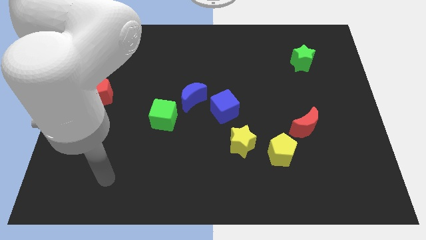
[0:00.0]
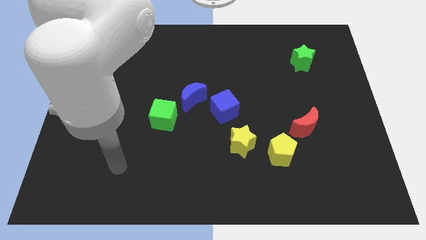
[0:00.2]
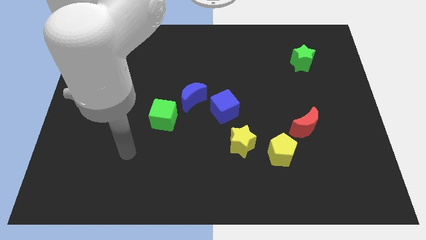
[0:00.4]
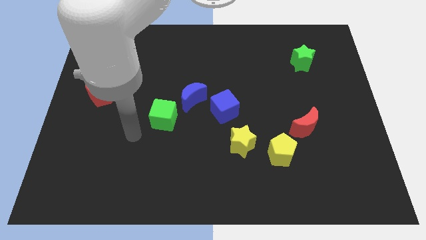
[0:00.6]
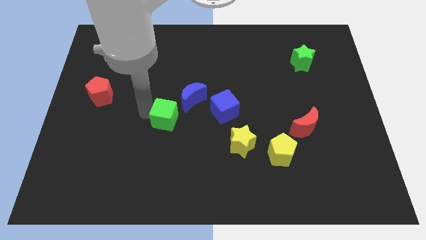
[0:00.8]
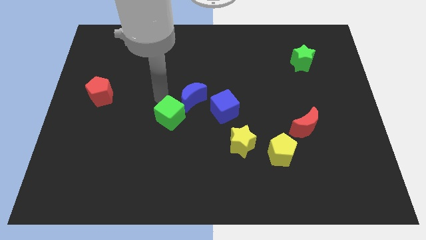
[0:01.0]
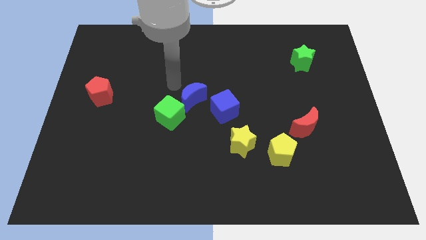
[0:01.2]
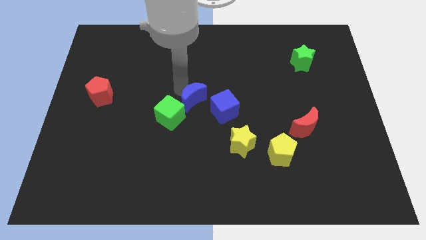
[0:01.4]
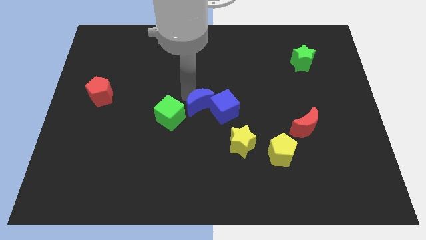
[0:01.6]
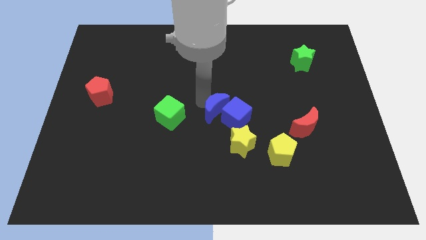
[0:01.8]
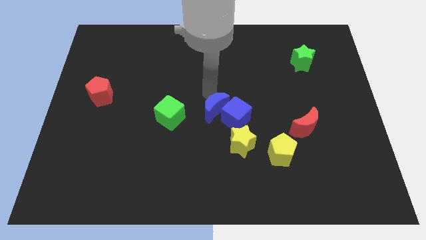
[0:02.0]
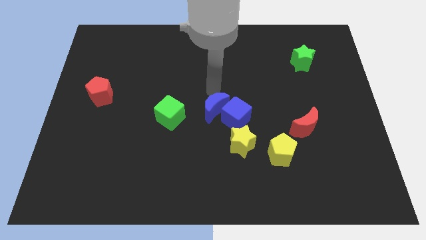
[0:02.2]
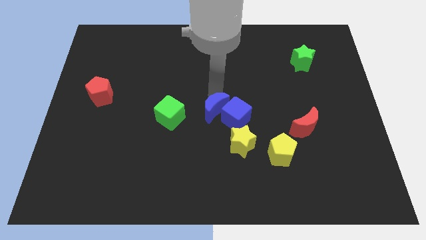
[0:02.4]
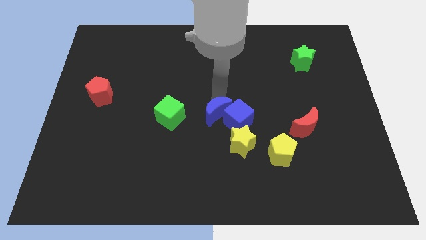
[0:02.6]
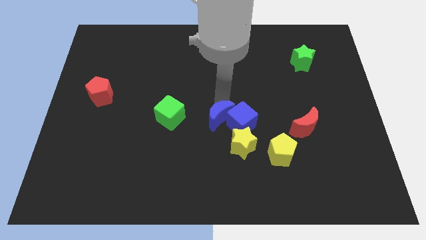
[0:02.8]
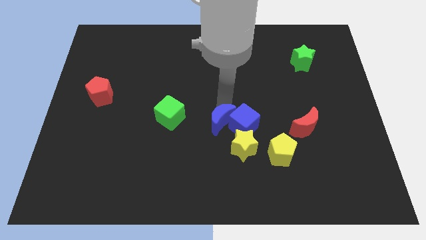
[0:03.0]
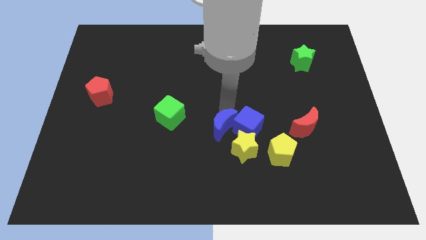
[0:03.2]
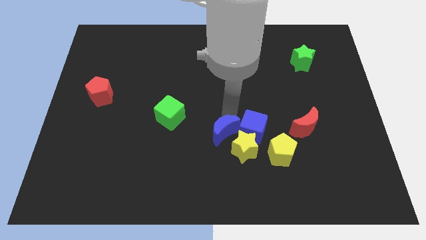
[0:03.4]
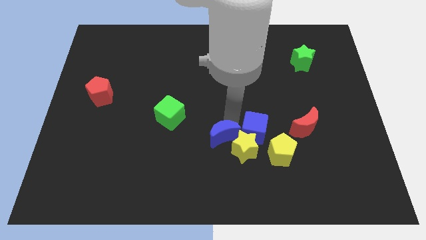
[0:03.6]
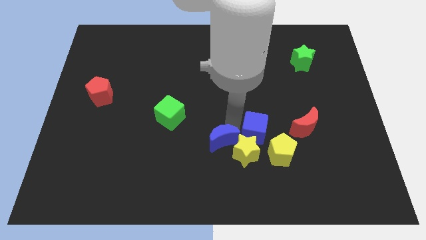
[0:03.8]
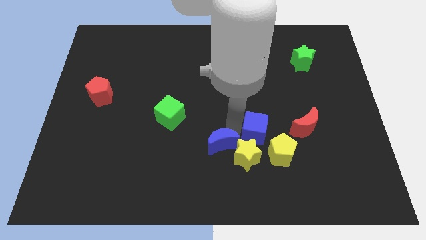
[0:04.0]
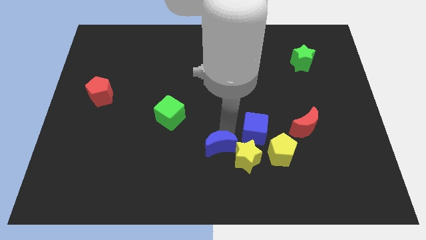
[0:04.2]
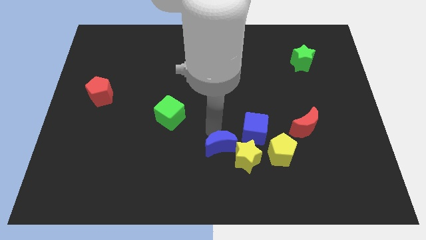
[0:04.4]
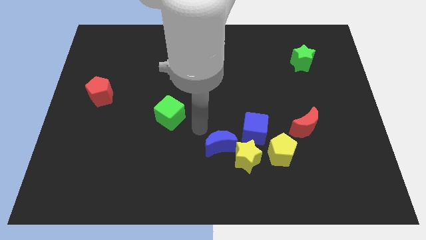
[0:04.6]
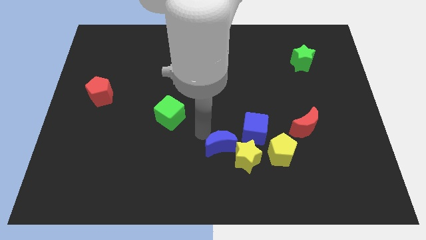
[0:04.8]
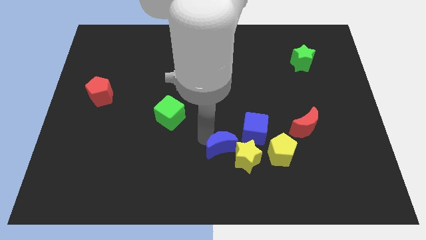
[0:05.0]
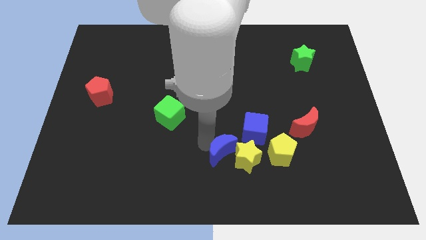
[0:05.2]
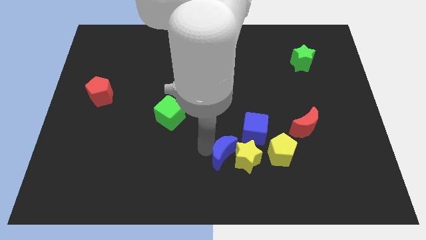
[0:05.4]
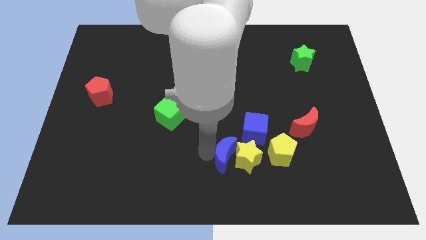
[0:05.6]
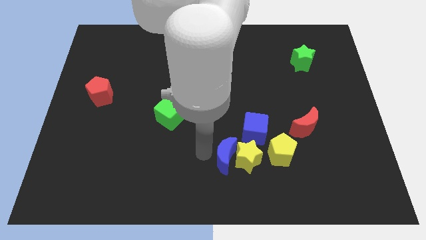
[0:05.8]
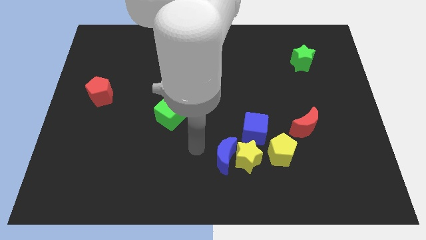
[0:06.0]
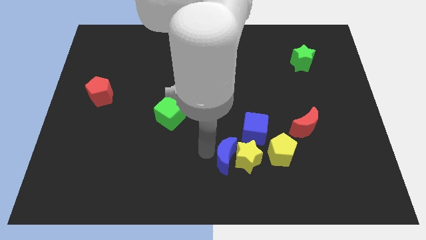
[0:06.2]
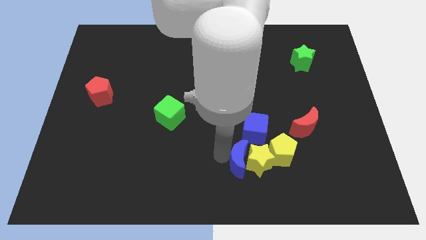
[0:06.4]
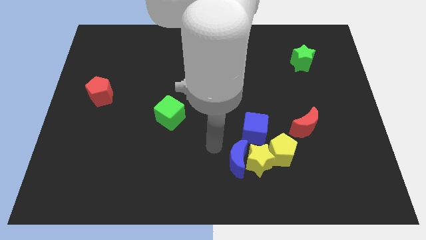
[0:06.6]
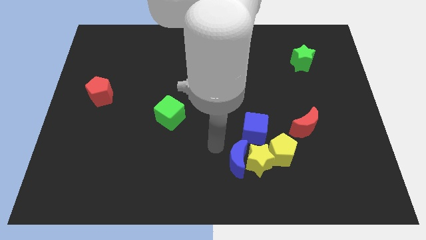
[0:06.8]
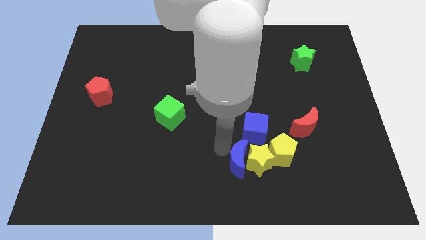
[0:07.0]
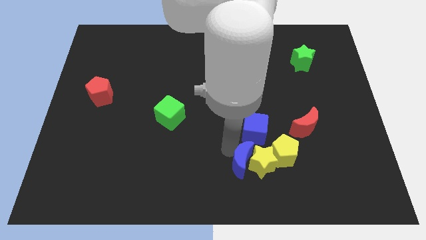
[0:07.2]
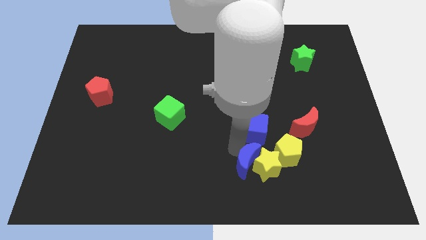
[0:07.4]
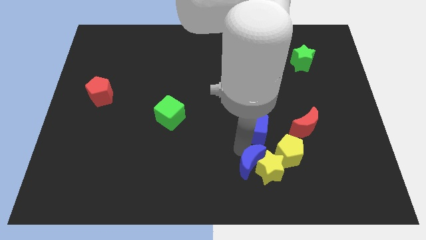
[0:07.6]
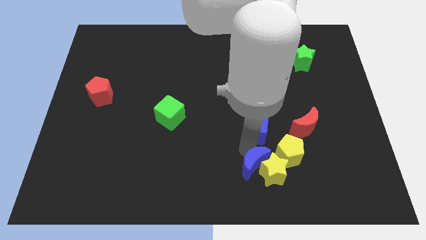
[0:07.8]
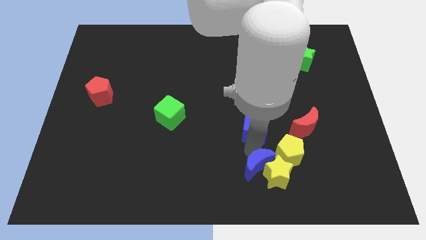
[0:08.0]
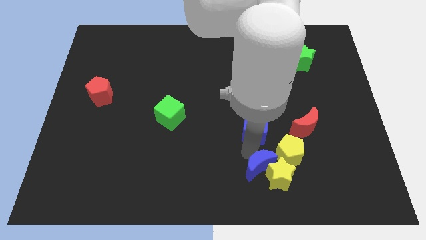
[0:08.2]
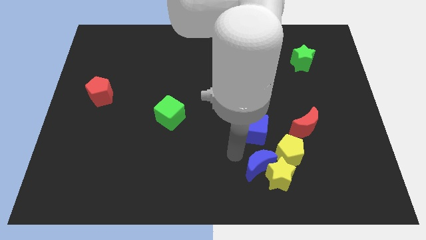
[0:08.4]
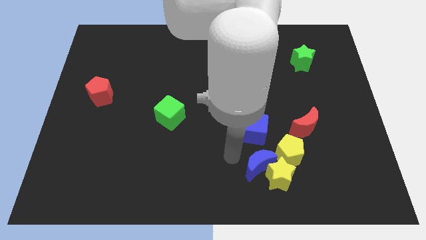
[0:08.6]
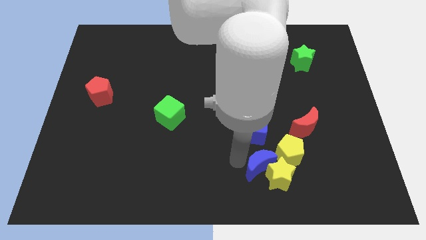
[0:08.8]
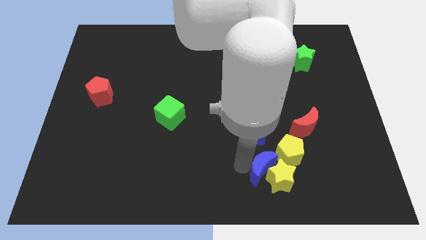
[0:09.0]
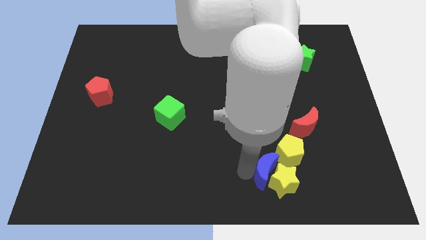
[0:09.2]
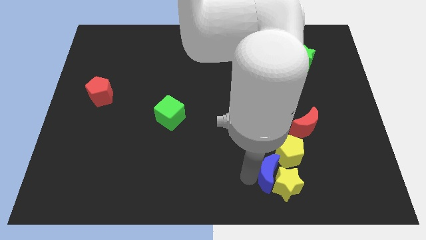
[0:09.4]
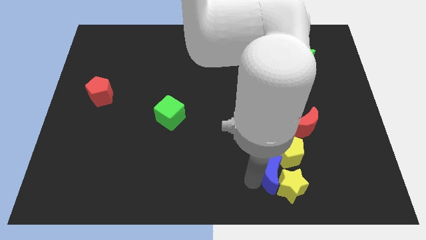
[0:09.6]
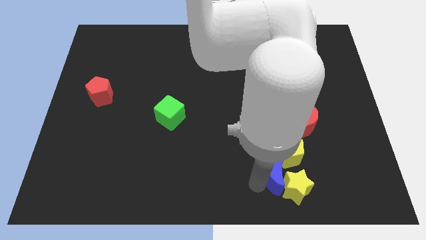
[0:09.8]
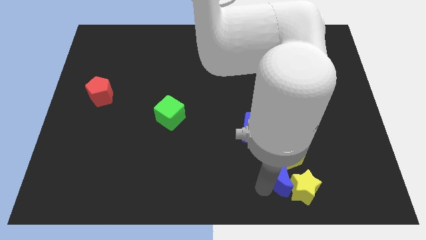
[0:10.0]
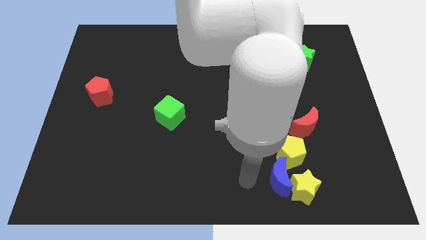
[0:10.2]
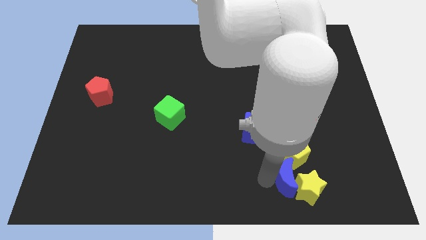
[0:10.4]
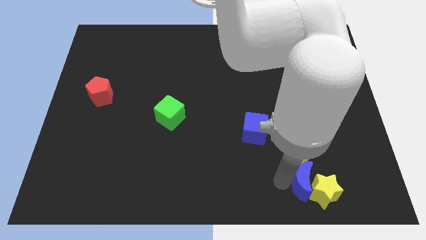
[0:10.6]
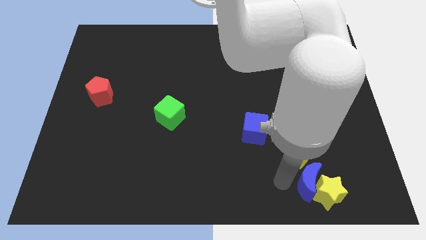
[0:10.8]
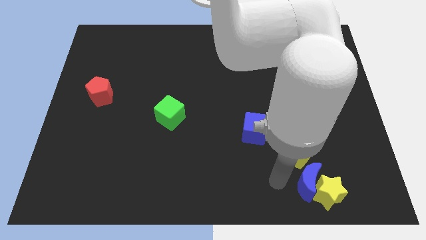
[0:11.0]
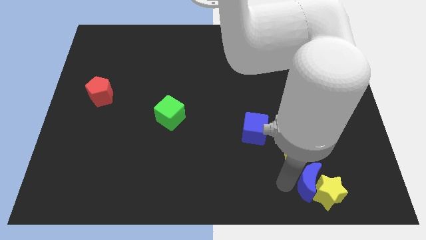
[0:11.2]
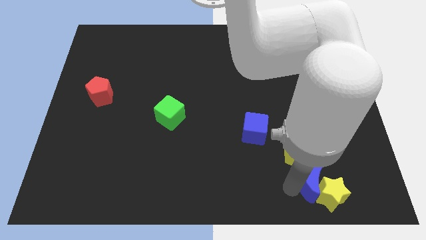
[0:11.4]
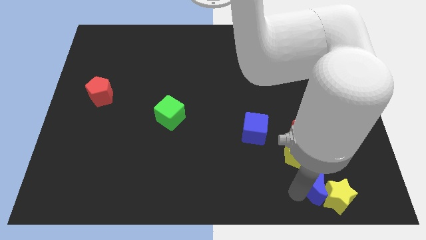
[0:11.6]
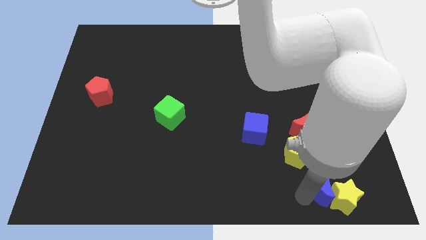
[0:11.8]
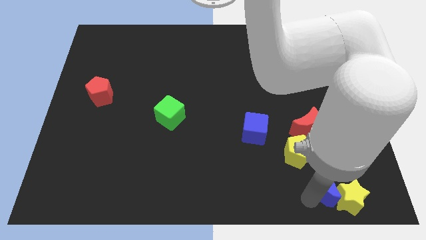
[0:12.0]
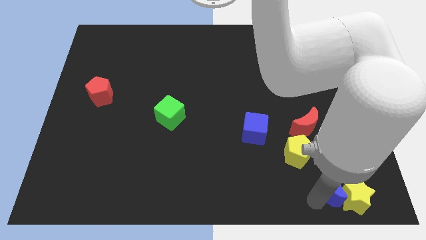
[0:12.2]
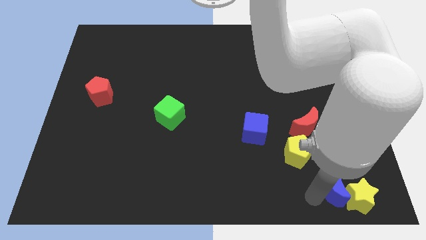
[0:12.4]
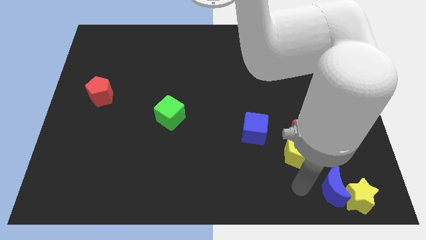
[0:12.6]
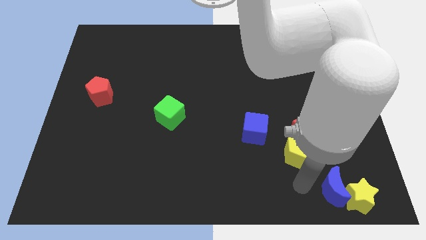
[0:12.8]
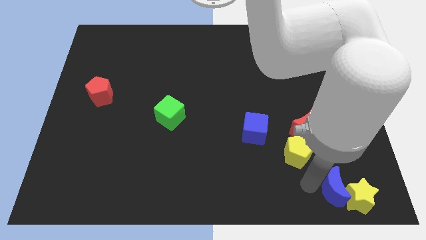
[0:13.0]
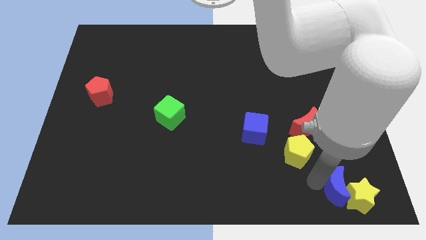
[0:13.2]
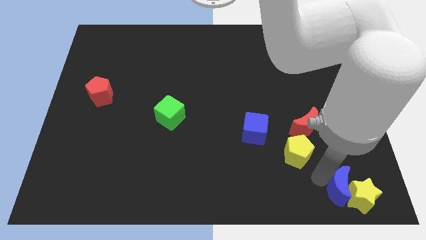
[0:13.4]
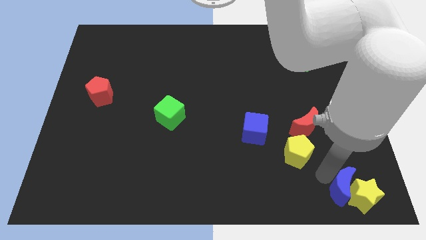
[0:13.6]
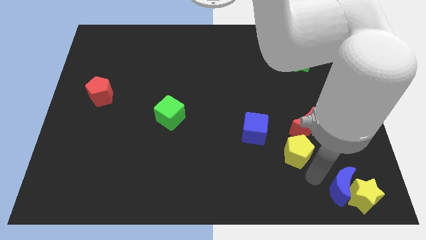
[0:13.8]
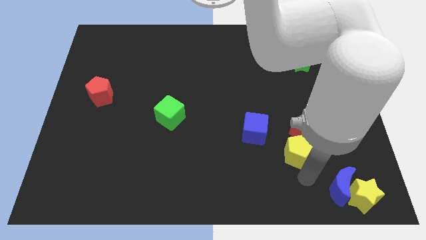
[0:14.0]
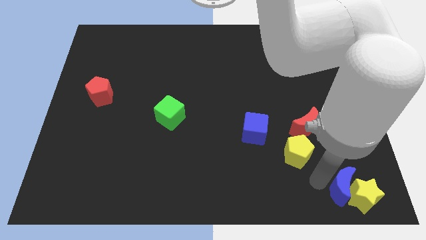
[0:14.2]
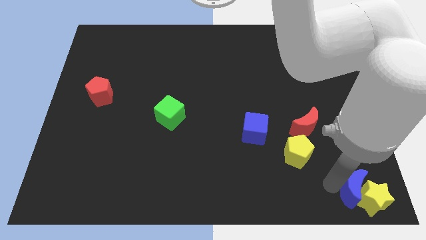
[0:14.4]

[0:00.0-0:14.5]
slide the blue moon to the bottom right of the board
